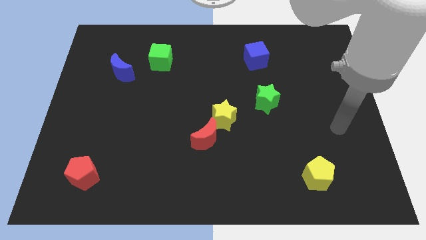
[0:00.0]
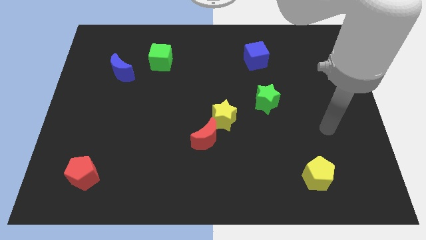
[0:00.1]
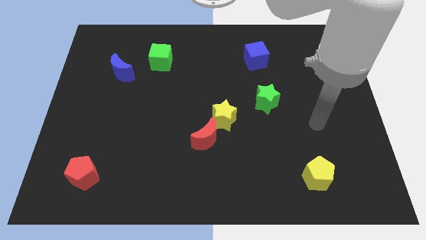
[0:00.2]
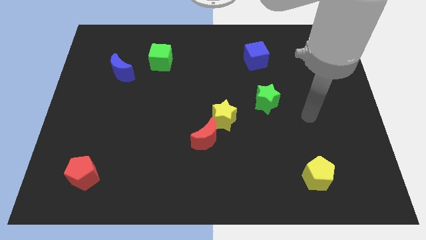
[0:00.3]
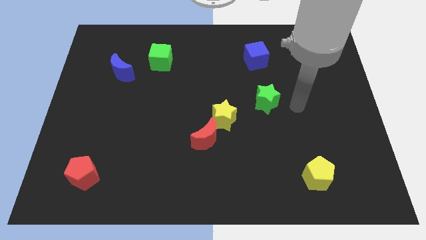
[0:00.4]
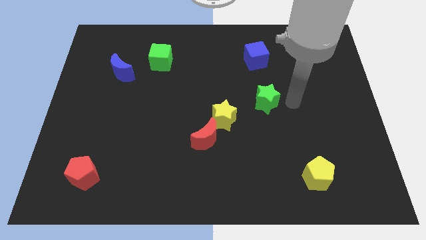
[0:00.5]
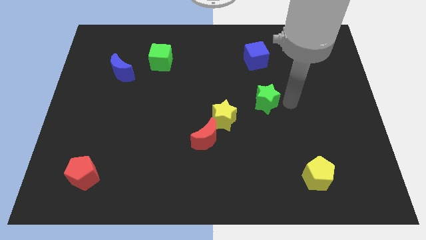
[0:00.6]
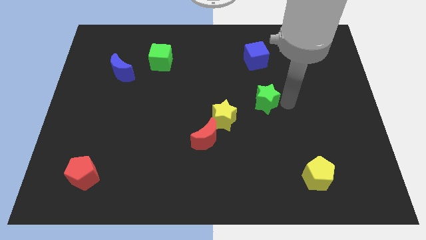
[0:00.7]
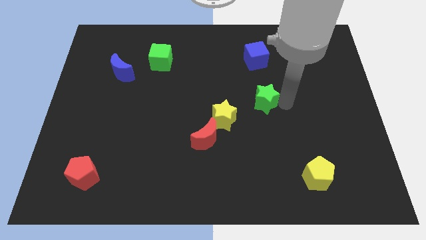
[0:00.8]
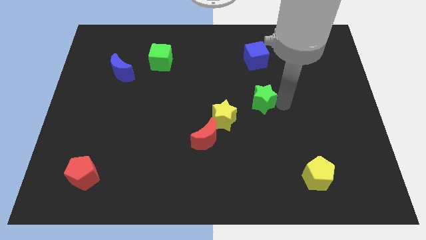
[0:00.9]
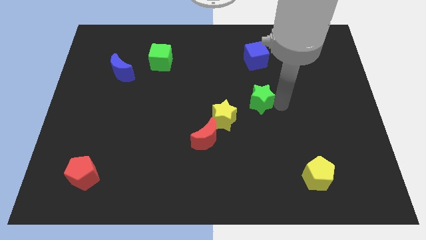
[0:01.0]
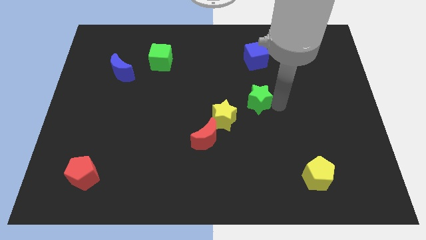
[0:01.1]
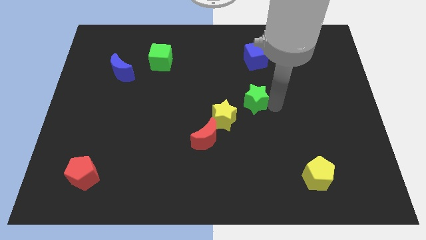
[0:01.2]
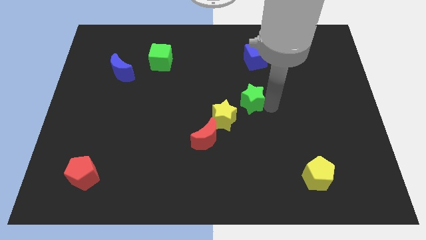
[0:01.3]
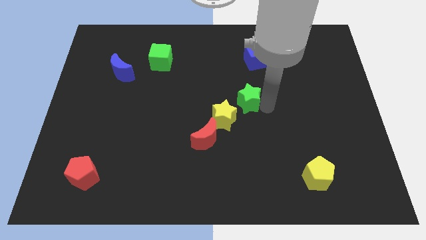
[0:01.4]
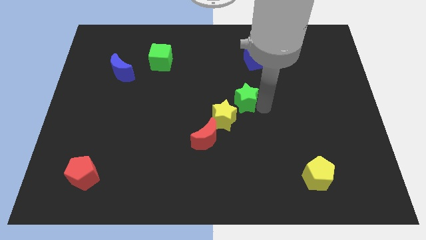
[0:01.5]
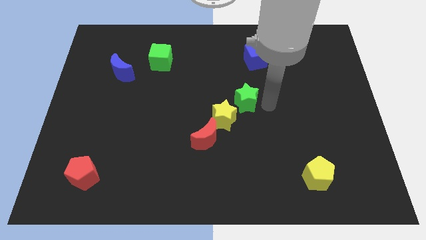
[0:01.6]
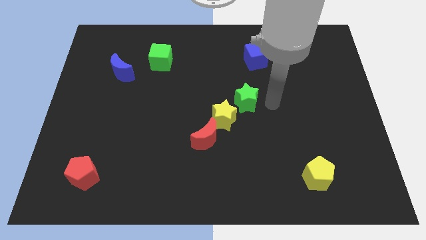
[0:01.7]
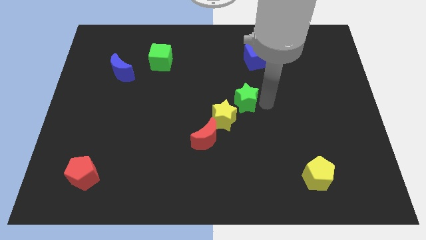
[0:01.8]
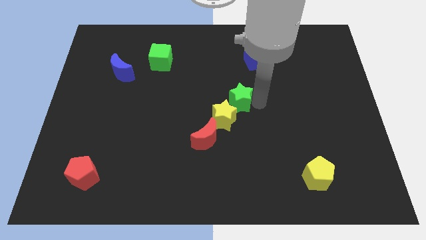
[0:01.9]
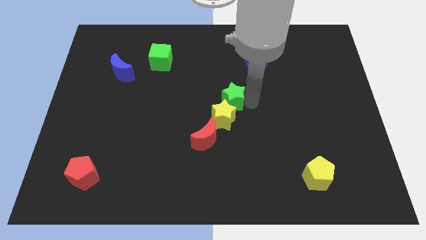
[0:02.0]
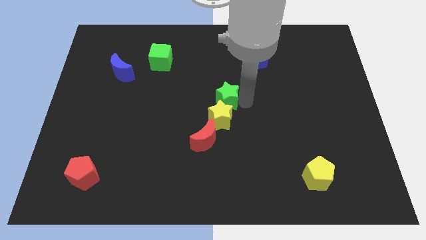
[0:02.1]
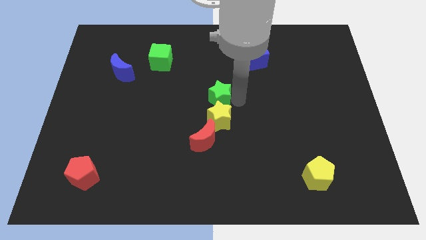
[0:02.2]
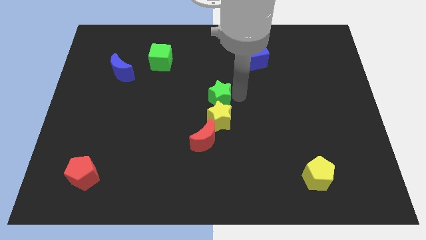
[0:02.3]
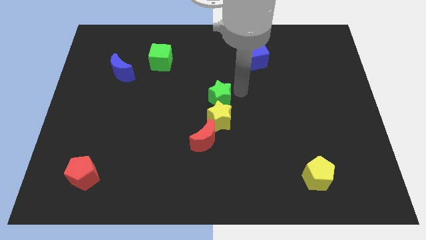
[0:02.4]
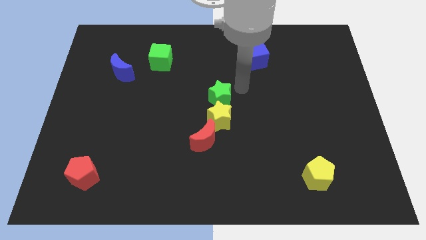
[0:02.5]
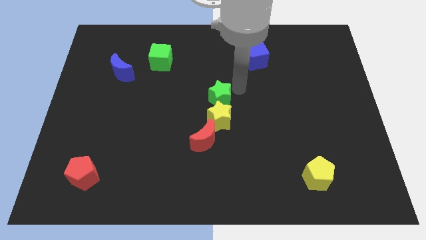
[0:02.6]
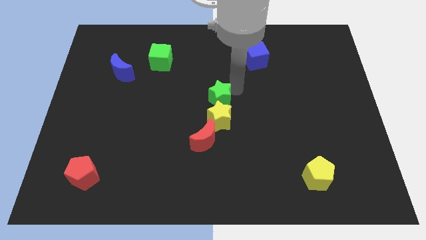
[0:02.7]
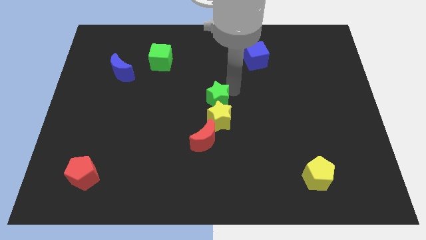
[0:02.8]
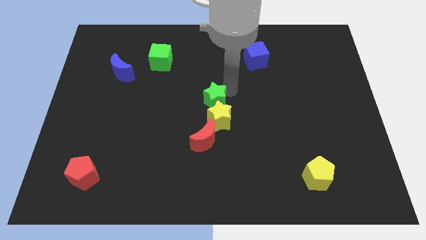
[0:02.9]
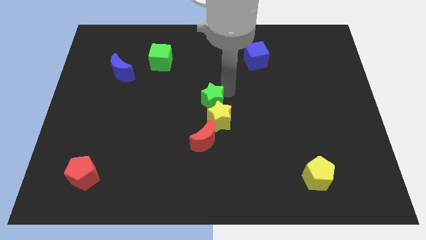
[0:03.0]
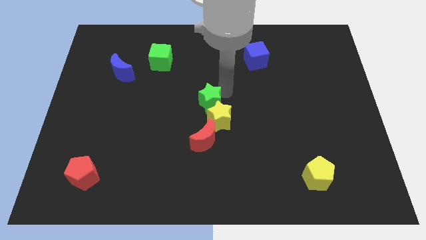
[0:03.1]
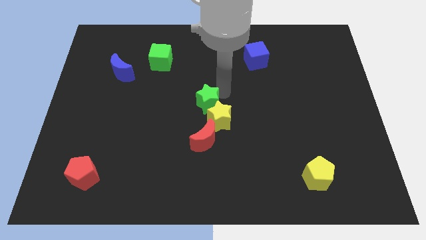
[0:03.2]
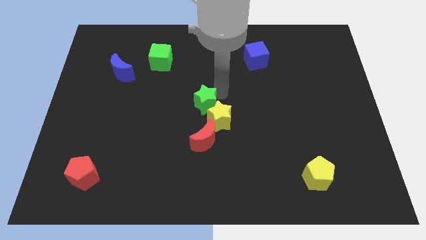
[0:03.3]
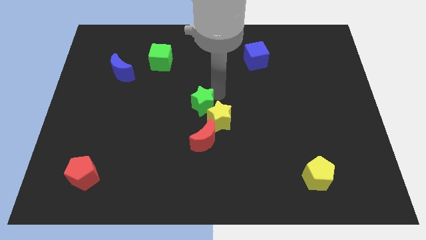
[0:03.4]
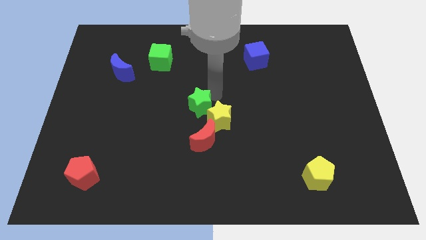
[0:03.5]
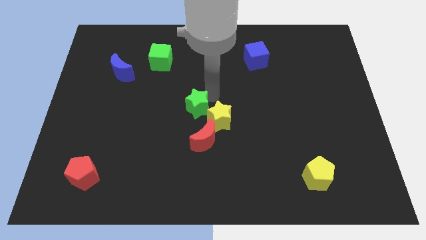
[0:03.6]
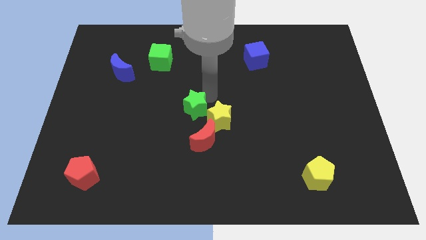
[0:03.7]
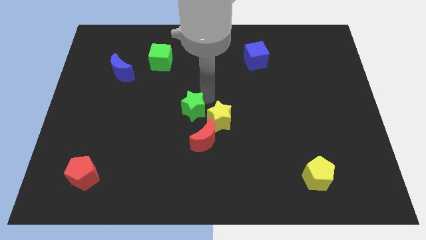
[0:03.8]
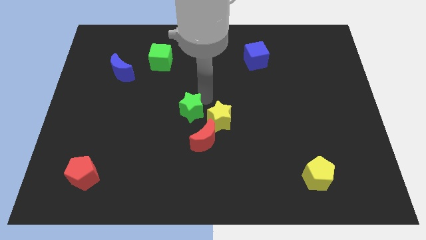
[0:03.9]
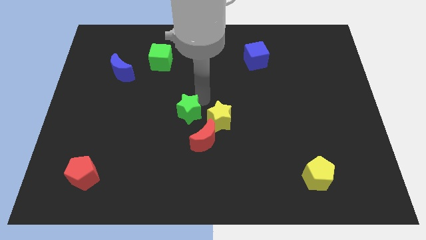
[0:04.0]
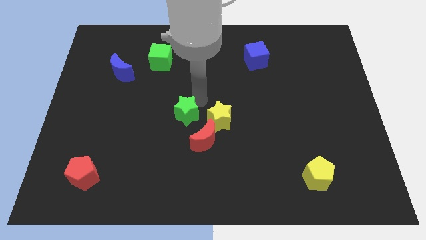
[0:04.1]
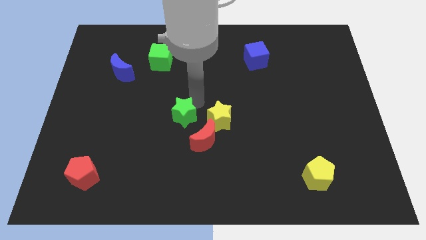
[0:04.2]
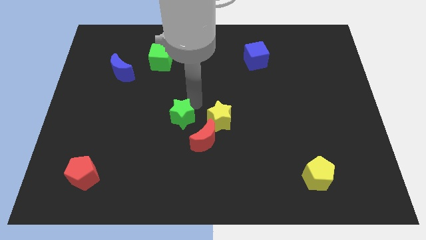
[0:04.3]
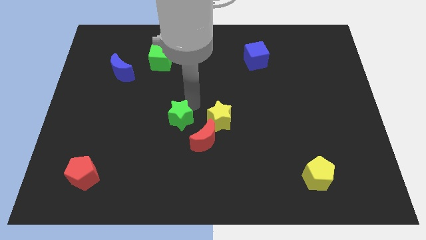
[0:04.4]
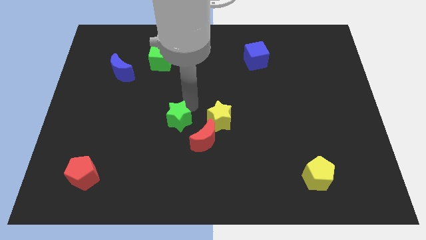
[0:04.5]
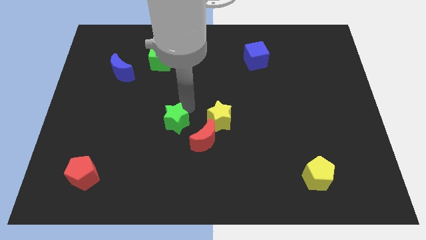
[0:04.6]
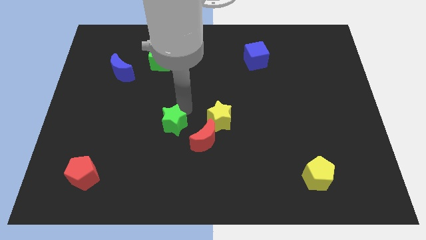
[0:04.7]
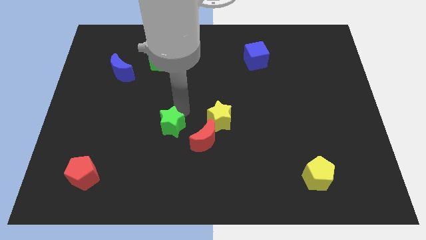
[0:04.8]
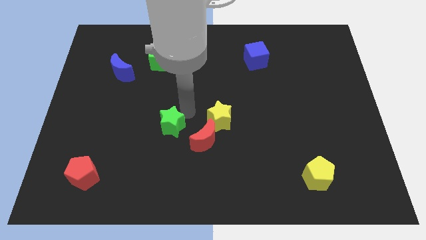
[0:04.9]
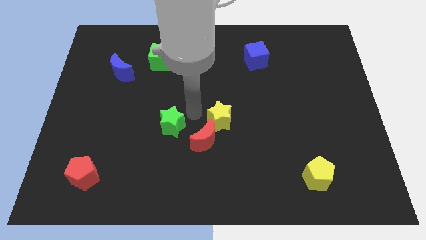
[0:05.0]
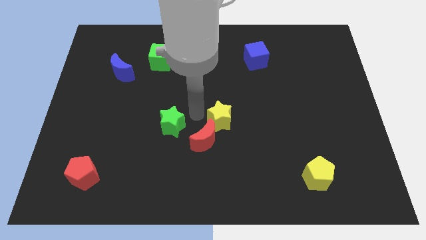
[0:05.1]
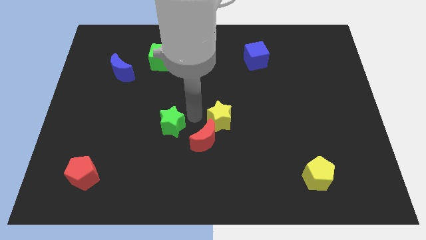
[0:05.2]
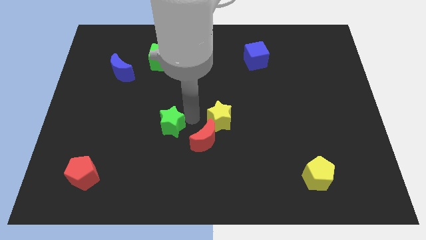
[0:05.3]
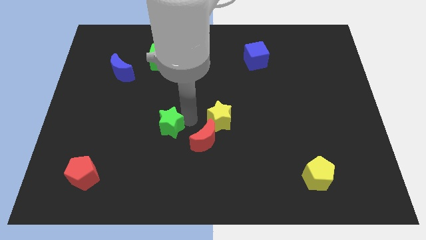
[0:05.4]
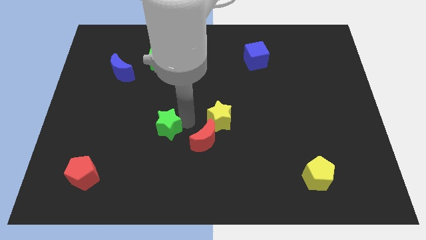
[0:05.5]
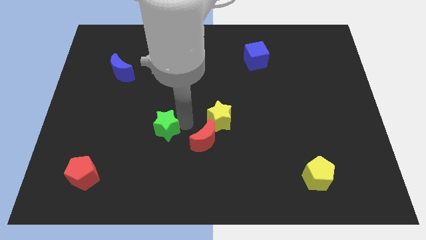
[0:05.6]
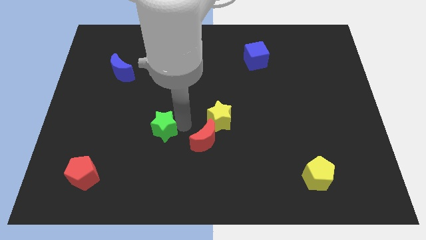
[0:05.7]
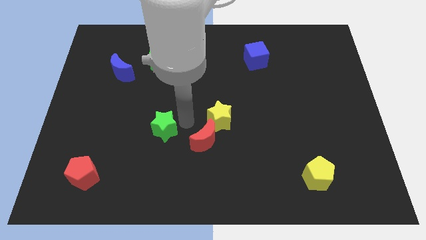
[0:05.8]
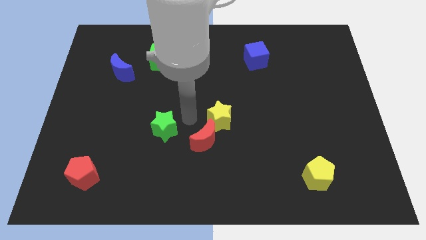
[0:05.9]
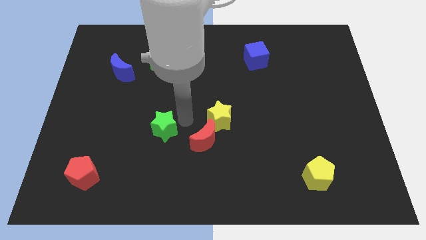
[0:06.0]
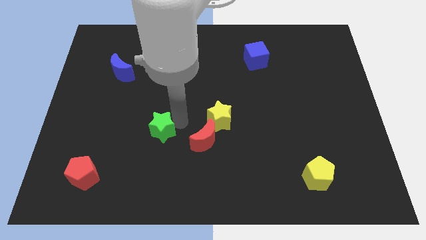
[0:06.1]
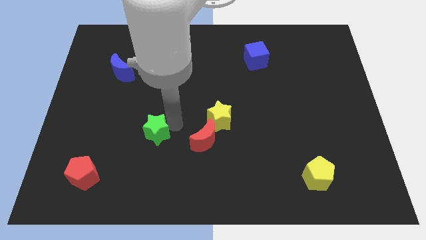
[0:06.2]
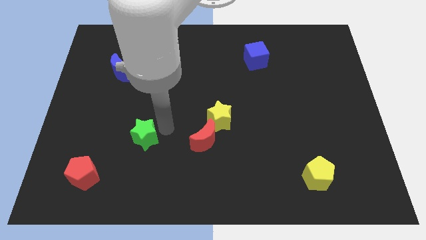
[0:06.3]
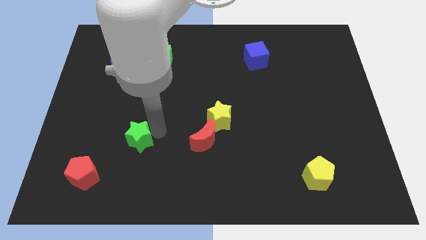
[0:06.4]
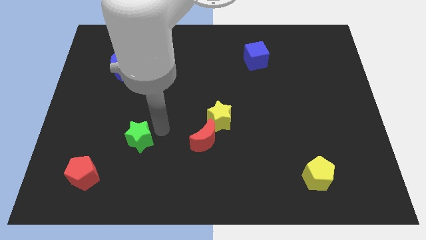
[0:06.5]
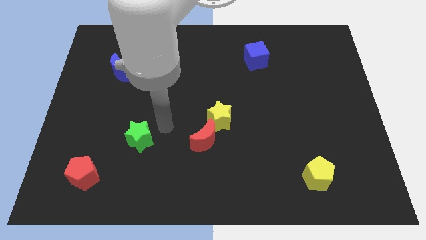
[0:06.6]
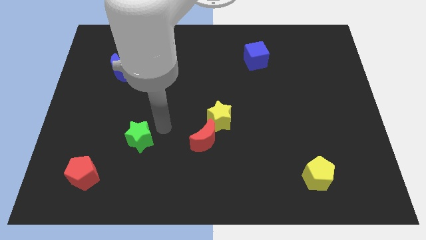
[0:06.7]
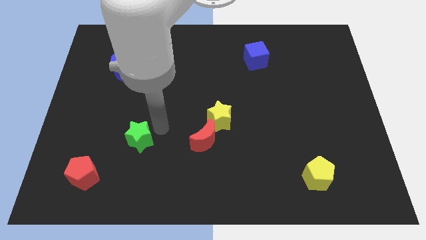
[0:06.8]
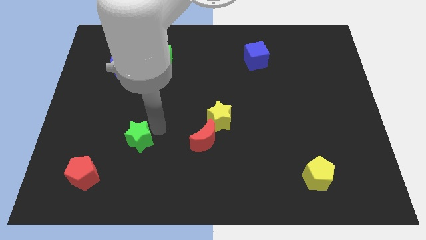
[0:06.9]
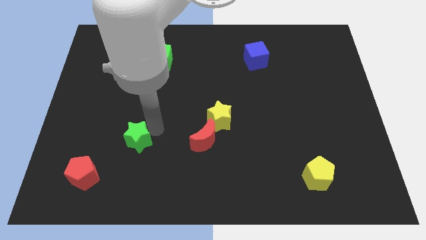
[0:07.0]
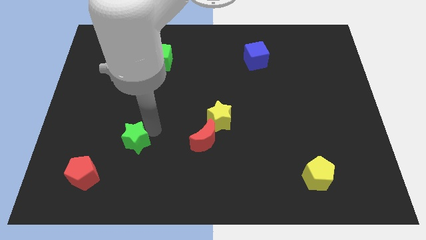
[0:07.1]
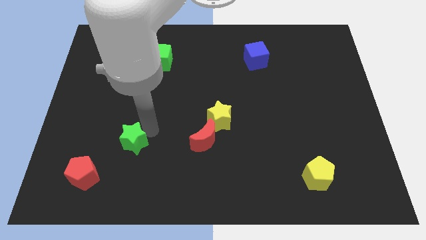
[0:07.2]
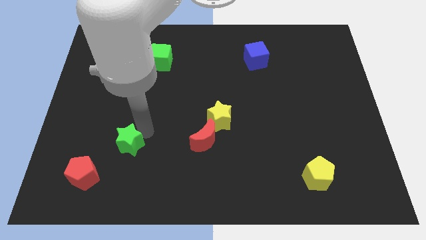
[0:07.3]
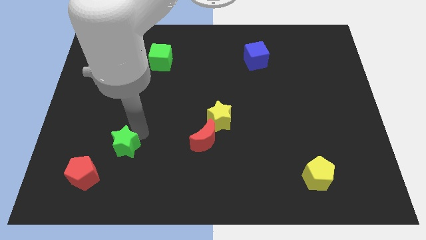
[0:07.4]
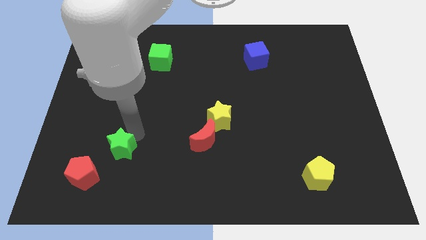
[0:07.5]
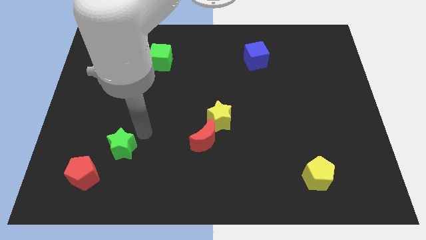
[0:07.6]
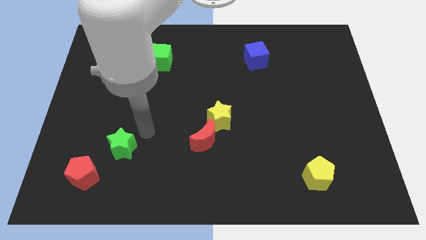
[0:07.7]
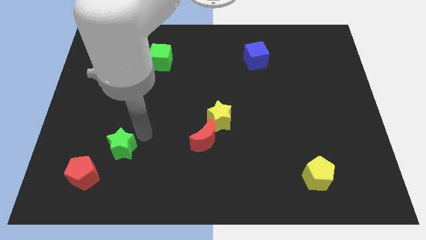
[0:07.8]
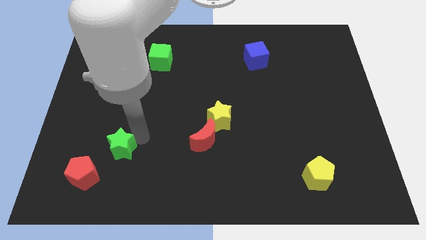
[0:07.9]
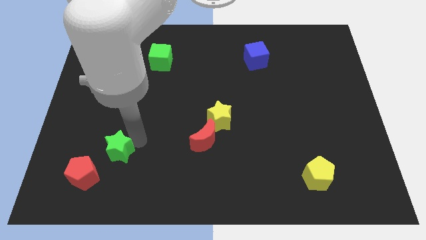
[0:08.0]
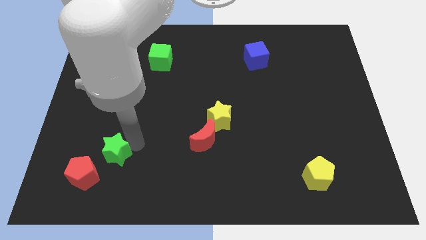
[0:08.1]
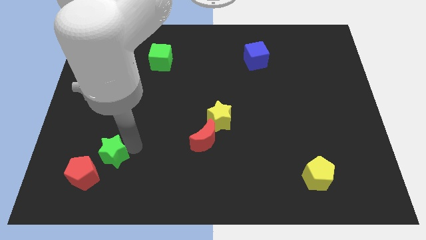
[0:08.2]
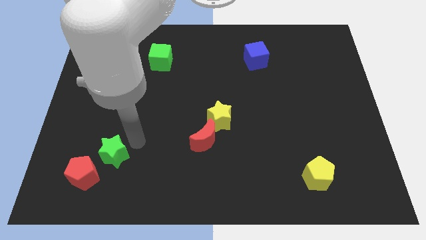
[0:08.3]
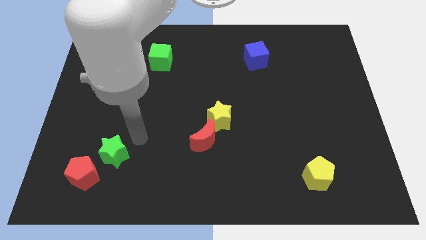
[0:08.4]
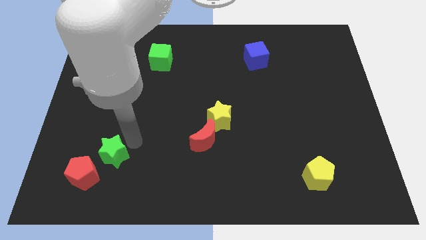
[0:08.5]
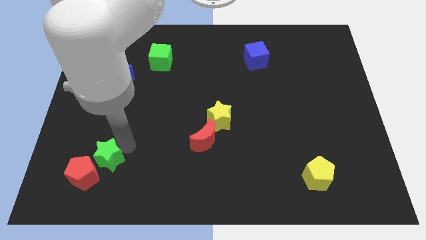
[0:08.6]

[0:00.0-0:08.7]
slide the green star to the red pentagon
